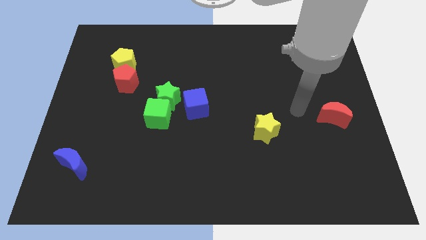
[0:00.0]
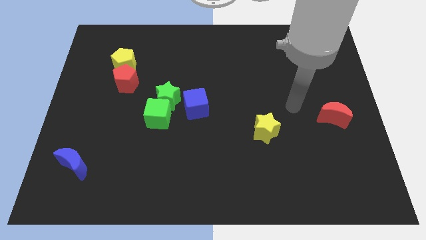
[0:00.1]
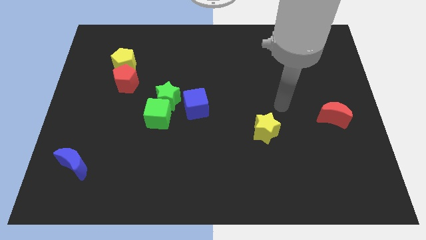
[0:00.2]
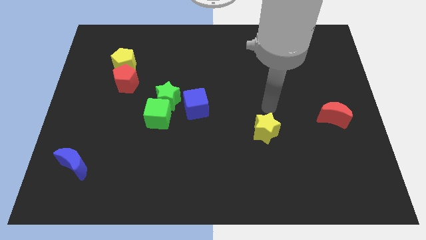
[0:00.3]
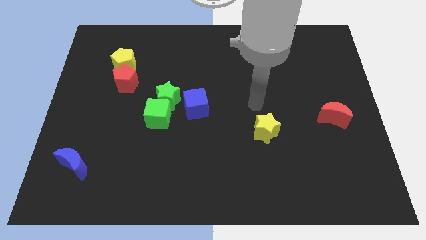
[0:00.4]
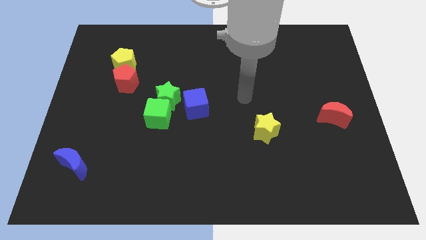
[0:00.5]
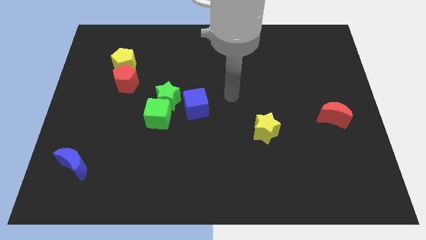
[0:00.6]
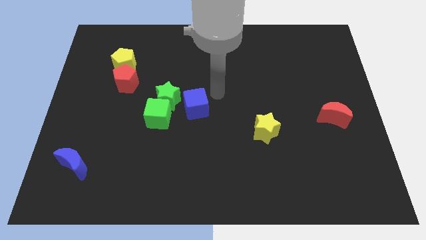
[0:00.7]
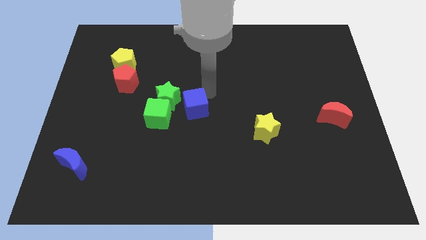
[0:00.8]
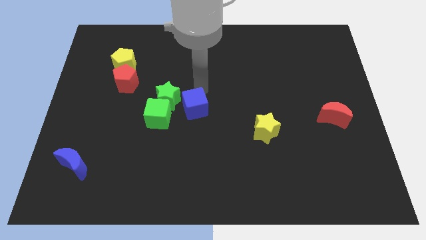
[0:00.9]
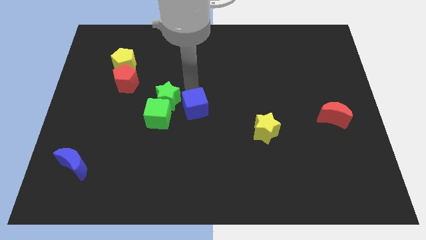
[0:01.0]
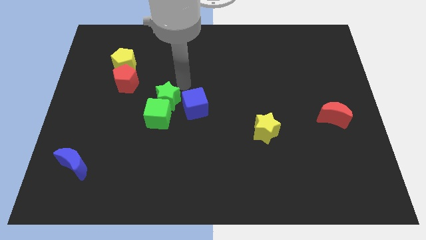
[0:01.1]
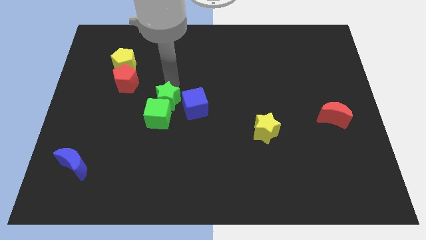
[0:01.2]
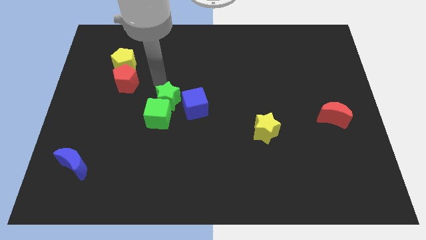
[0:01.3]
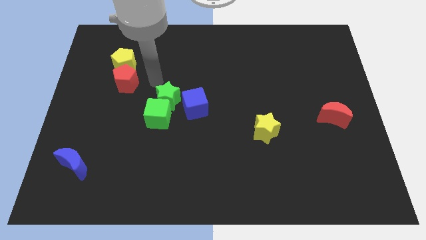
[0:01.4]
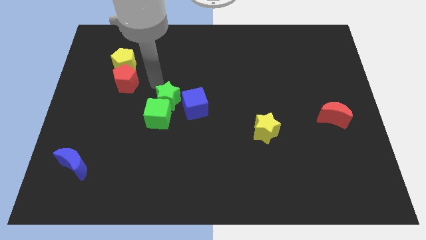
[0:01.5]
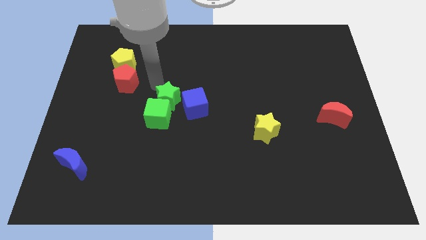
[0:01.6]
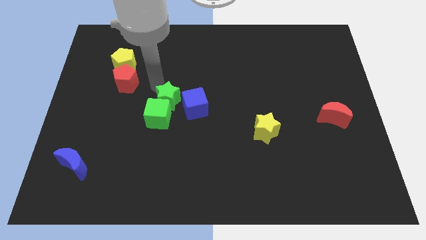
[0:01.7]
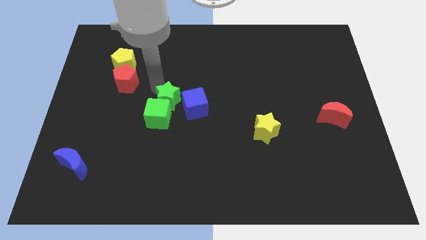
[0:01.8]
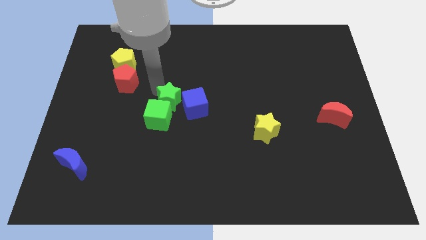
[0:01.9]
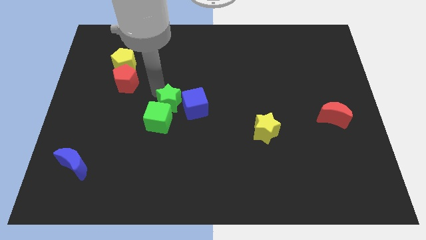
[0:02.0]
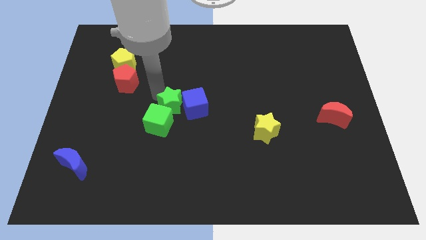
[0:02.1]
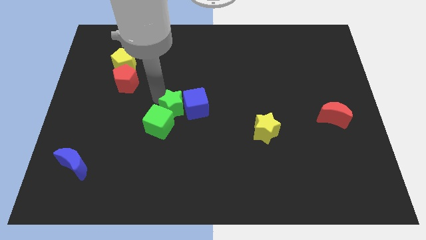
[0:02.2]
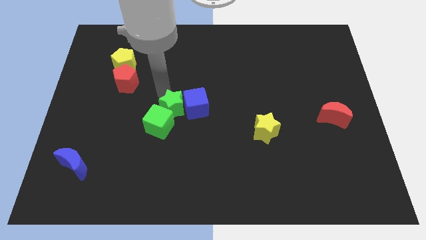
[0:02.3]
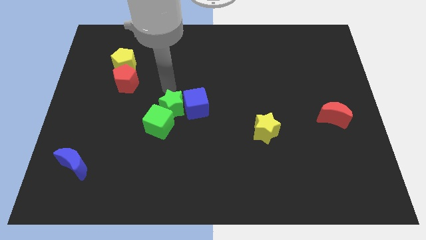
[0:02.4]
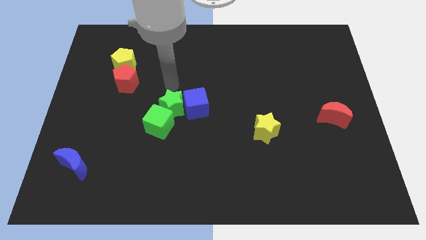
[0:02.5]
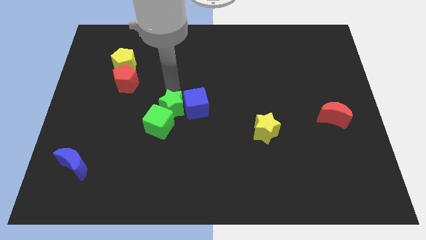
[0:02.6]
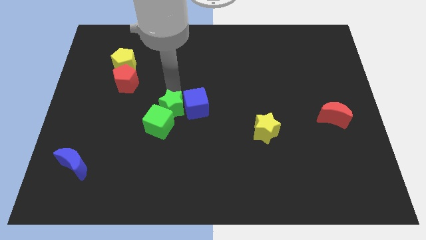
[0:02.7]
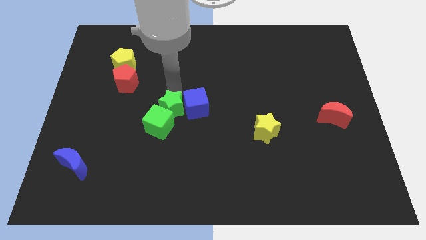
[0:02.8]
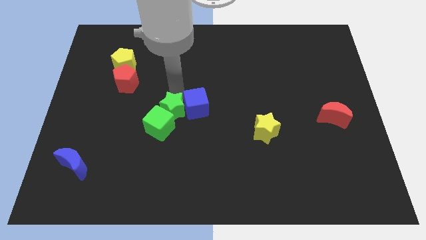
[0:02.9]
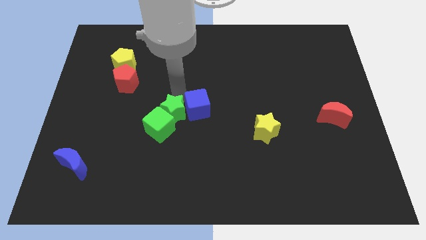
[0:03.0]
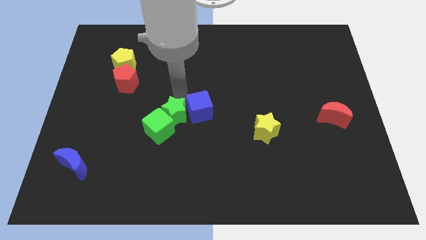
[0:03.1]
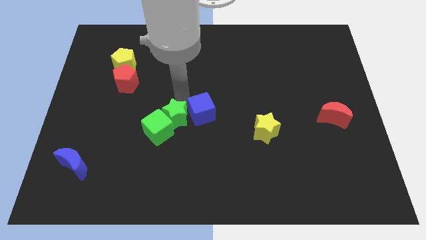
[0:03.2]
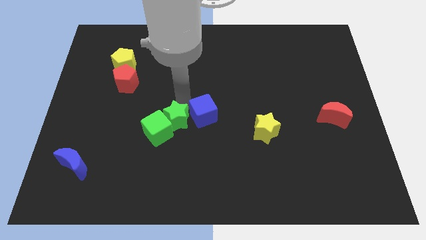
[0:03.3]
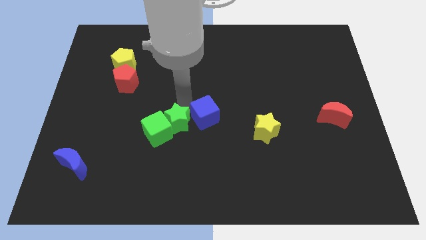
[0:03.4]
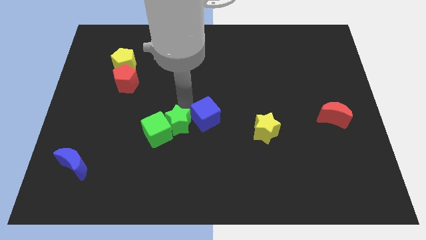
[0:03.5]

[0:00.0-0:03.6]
move the green star slightly downwards

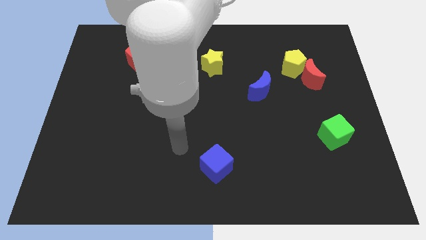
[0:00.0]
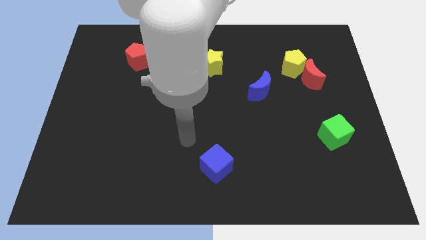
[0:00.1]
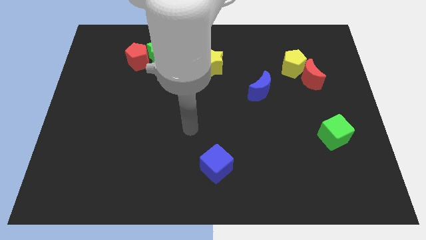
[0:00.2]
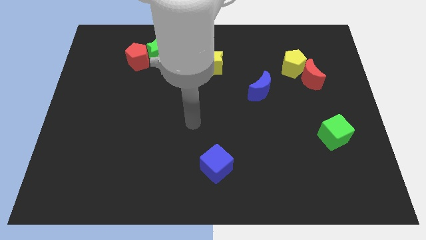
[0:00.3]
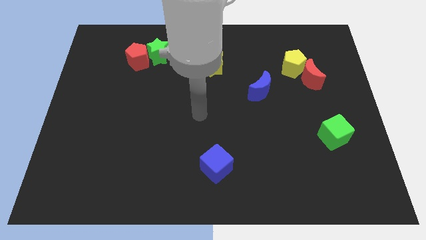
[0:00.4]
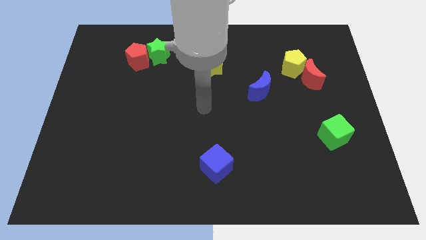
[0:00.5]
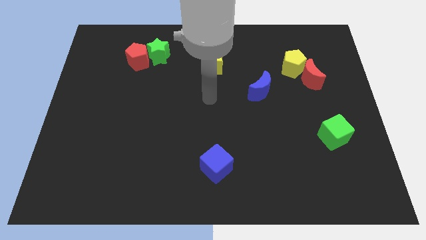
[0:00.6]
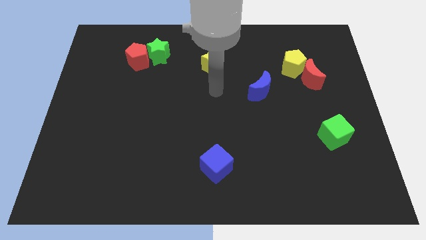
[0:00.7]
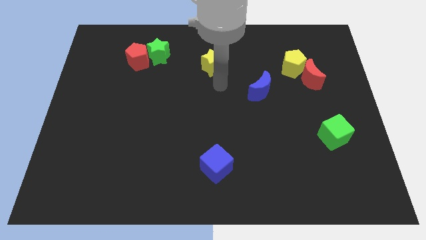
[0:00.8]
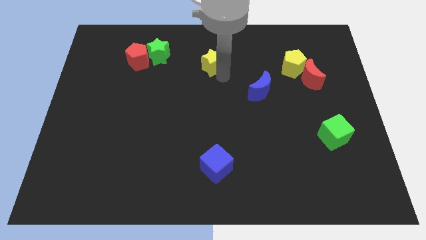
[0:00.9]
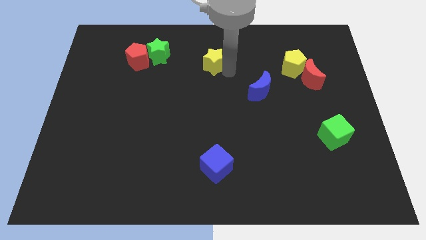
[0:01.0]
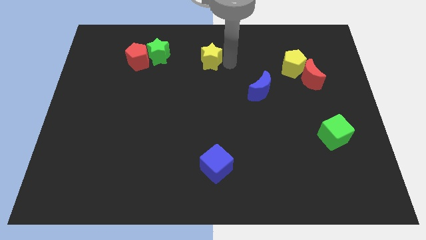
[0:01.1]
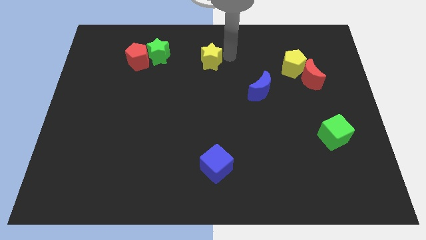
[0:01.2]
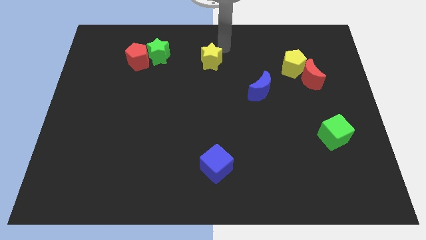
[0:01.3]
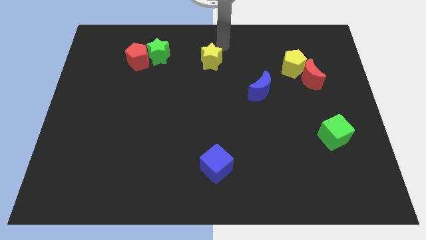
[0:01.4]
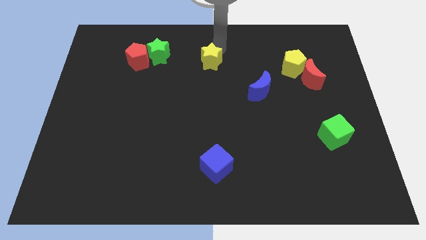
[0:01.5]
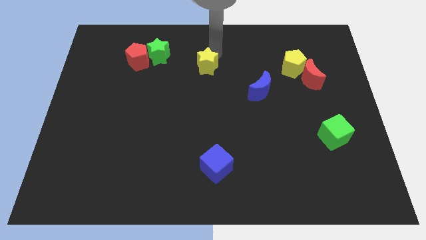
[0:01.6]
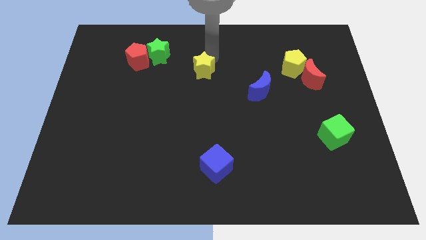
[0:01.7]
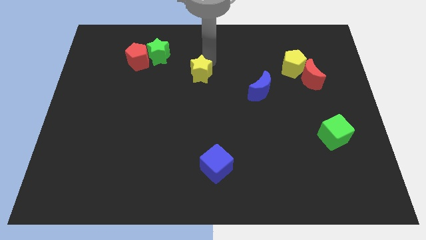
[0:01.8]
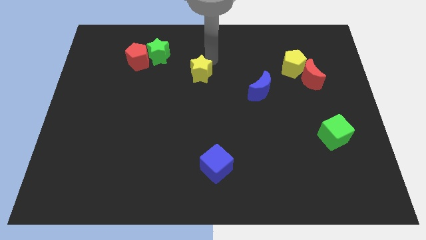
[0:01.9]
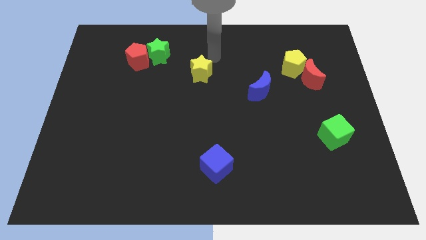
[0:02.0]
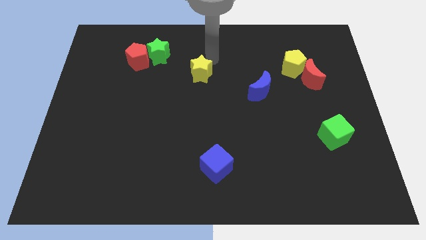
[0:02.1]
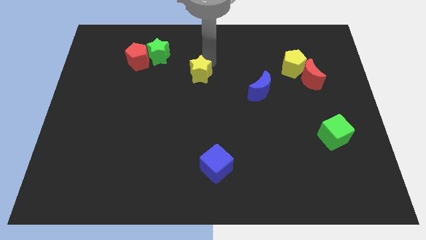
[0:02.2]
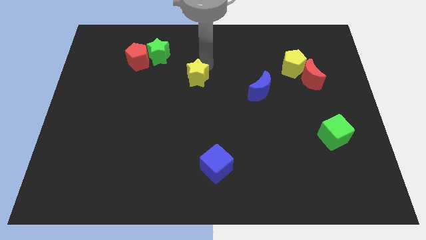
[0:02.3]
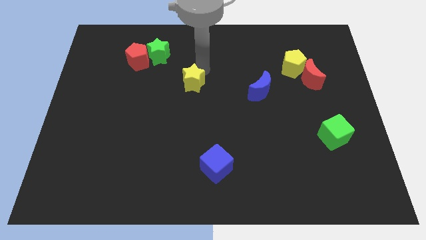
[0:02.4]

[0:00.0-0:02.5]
push the yellow star down and left diagonally a little

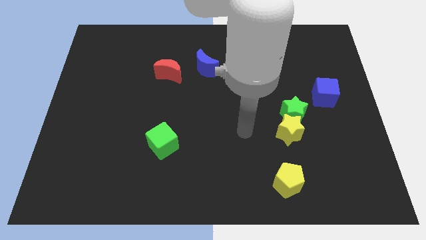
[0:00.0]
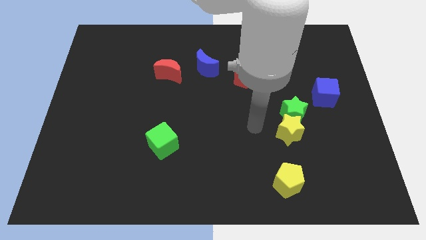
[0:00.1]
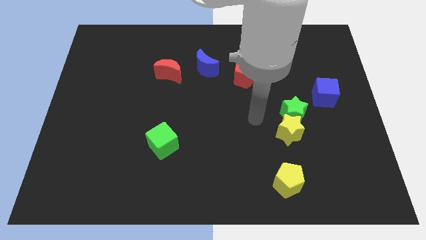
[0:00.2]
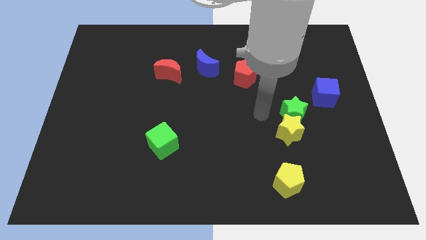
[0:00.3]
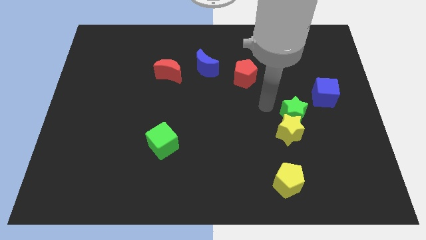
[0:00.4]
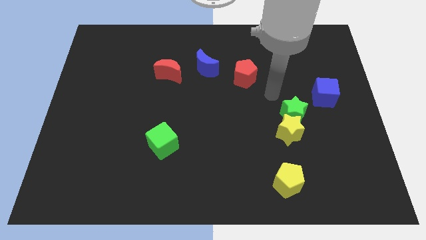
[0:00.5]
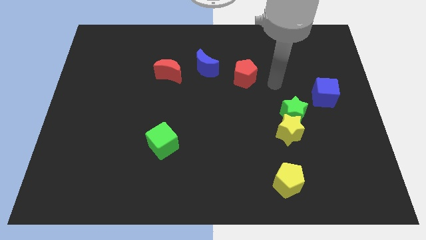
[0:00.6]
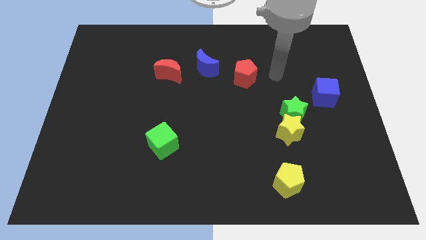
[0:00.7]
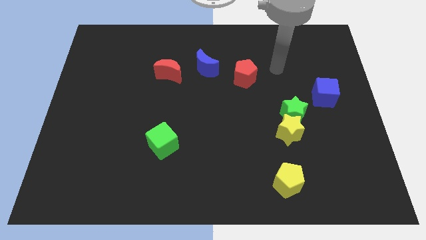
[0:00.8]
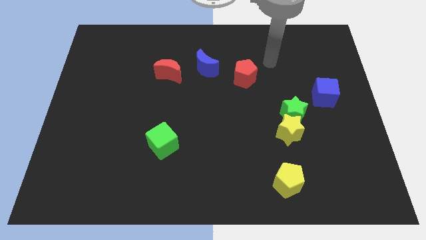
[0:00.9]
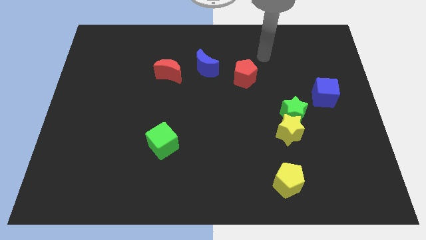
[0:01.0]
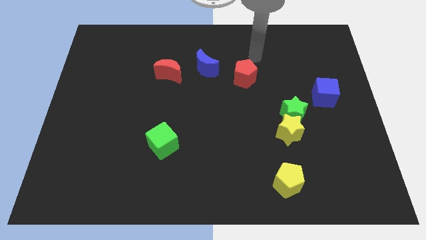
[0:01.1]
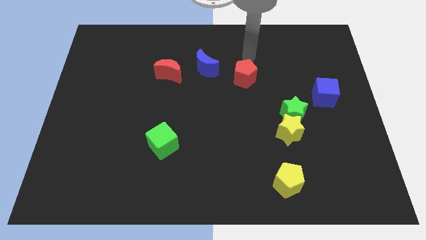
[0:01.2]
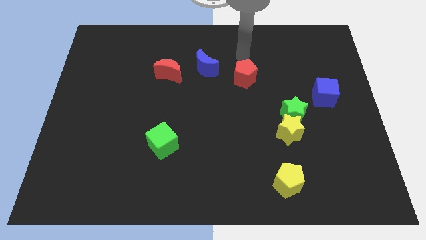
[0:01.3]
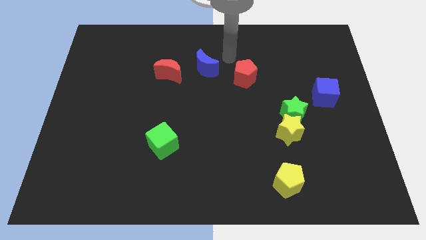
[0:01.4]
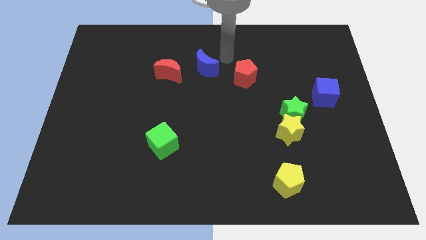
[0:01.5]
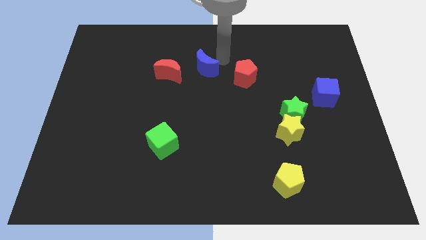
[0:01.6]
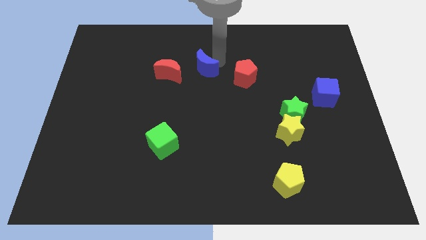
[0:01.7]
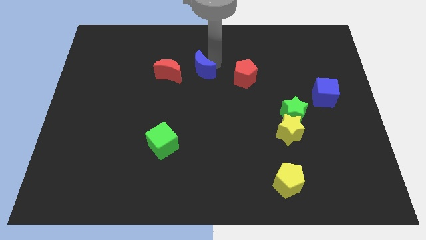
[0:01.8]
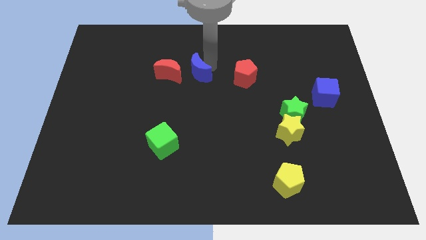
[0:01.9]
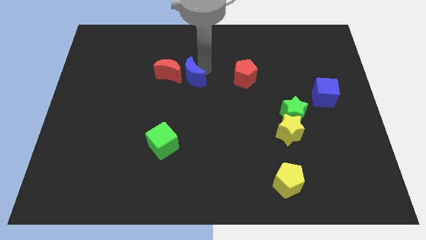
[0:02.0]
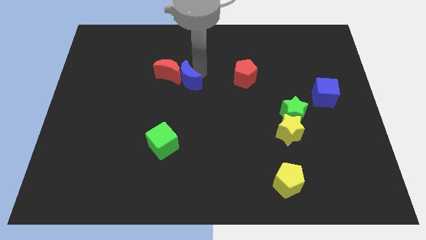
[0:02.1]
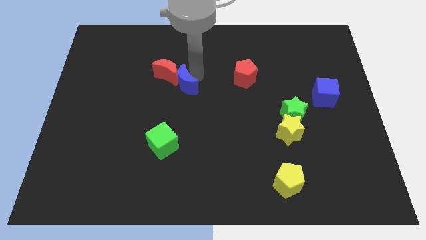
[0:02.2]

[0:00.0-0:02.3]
slide the blue moon down and then to the left a little bit
